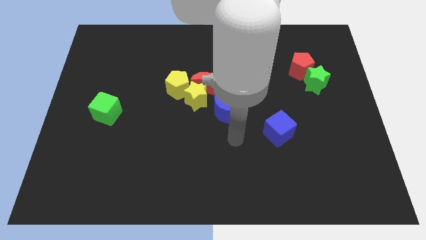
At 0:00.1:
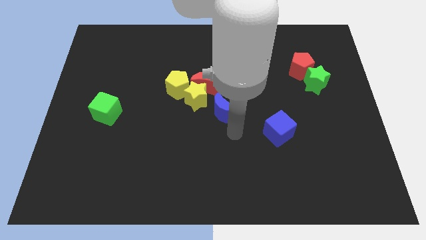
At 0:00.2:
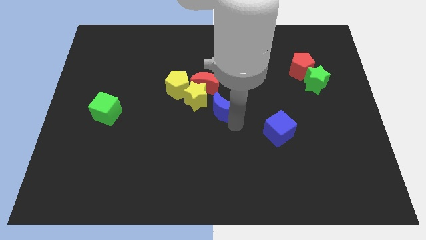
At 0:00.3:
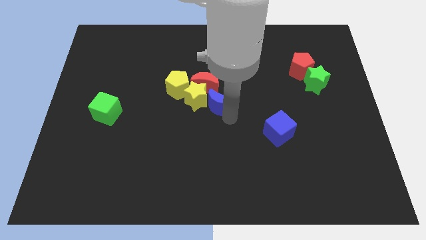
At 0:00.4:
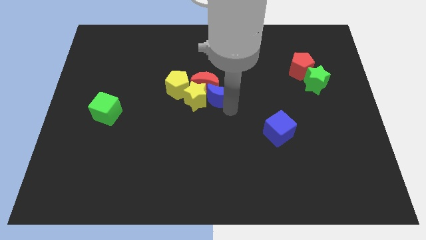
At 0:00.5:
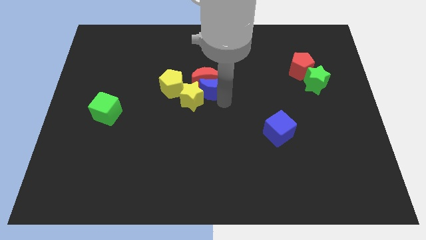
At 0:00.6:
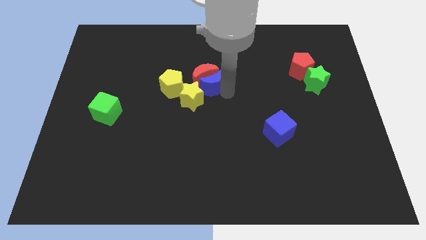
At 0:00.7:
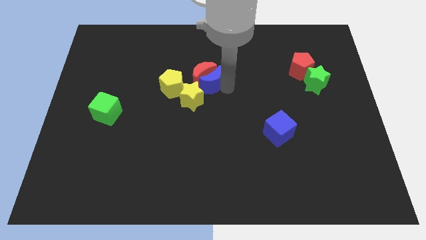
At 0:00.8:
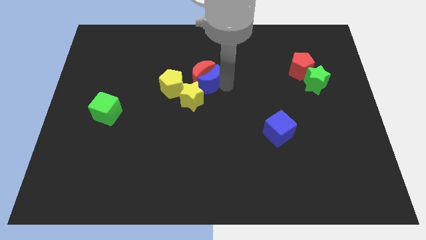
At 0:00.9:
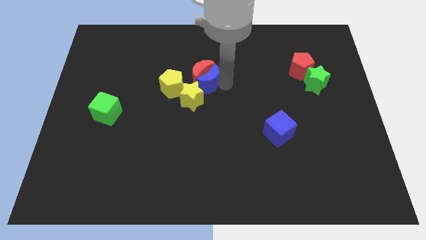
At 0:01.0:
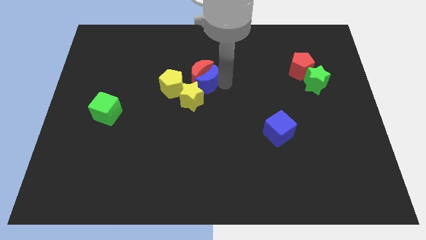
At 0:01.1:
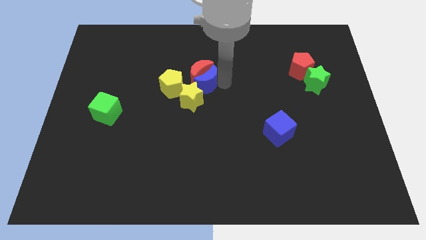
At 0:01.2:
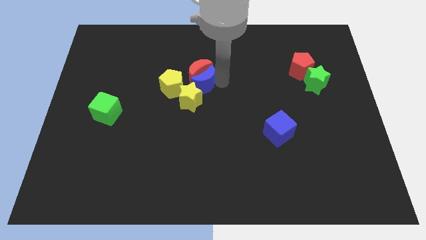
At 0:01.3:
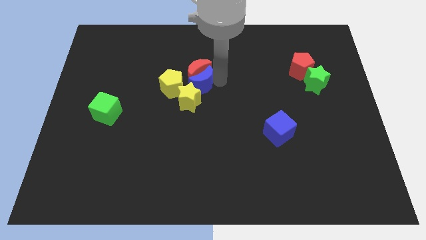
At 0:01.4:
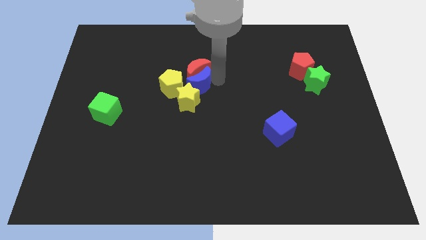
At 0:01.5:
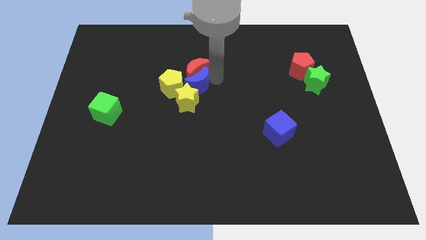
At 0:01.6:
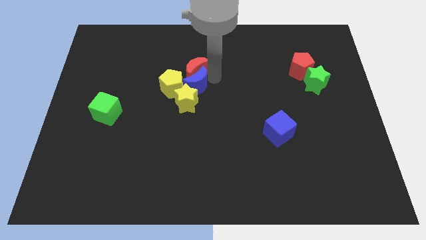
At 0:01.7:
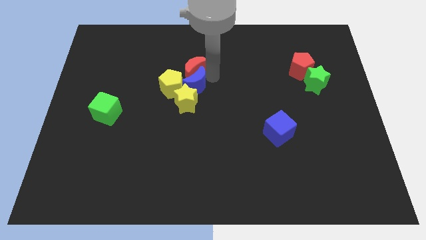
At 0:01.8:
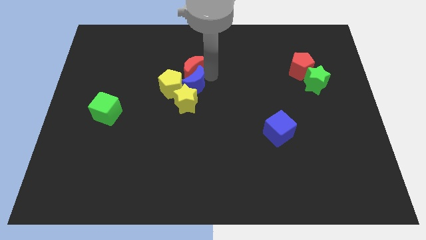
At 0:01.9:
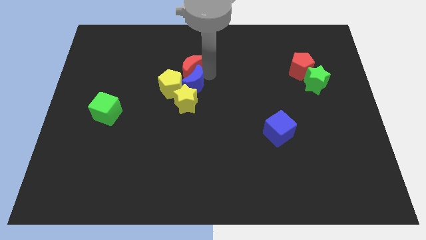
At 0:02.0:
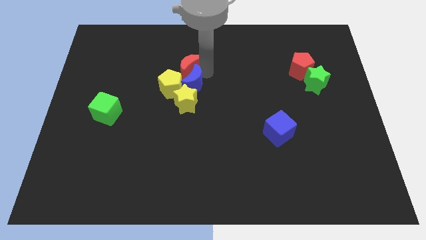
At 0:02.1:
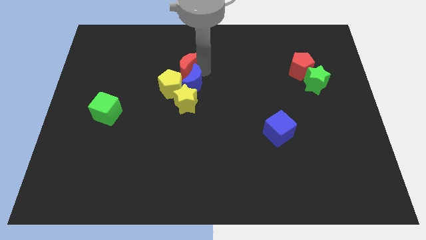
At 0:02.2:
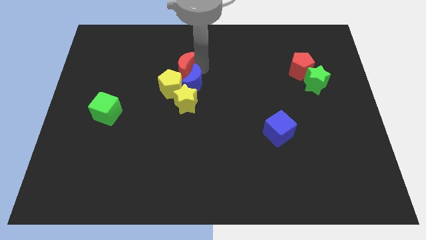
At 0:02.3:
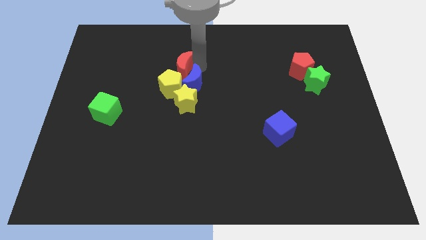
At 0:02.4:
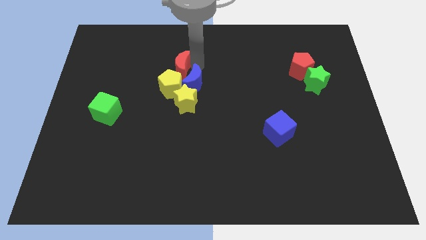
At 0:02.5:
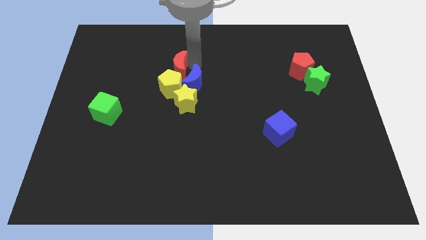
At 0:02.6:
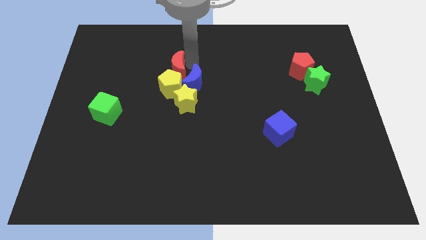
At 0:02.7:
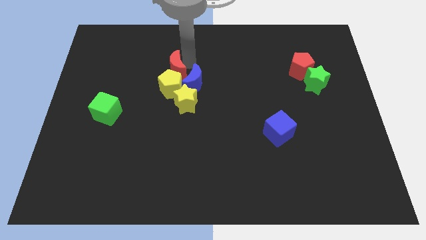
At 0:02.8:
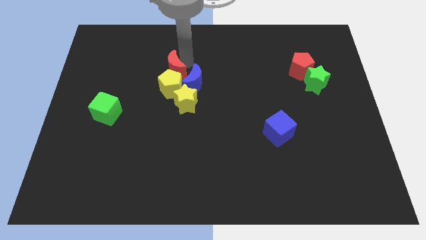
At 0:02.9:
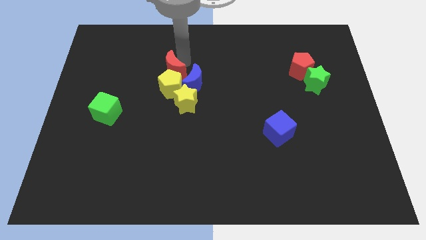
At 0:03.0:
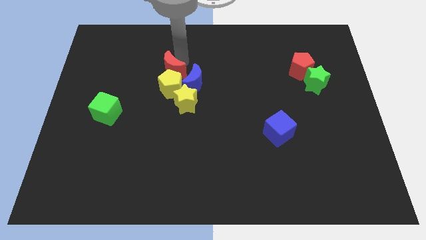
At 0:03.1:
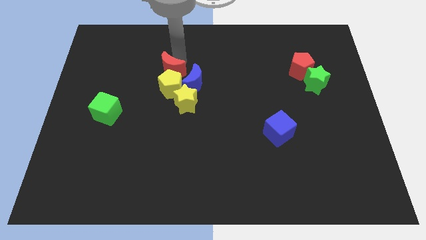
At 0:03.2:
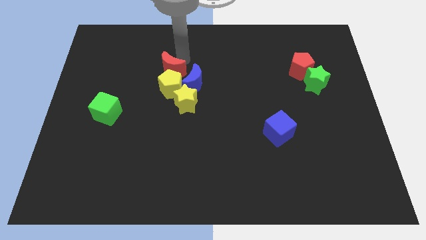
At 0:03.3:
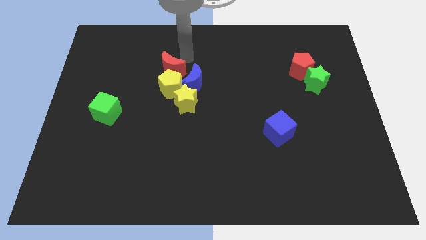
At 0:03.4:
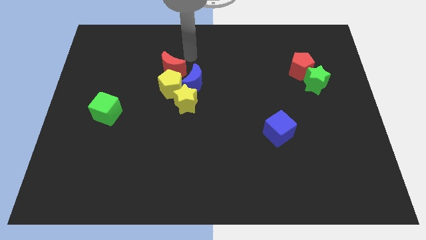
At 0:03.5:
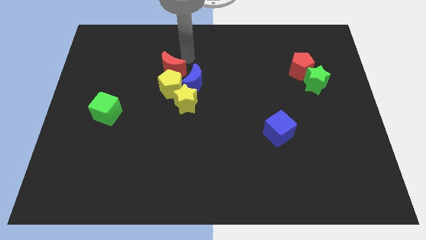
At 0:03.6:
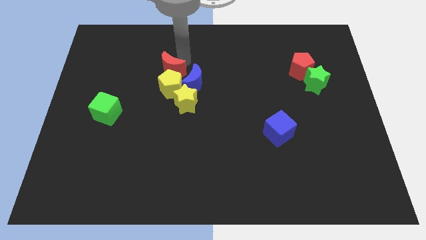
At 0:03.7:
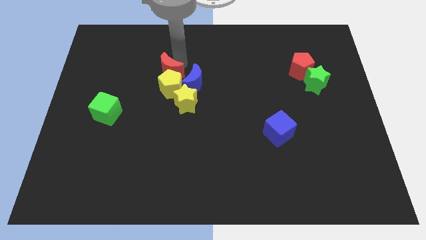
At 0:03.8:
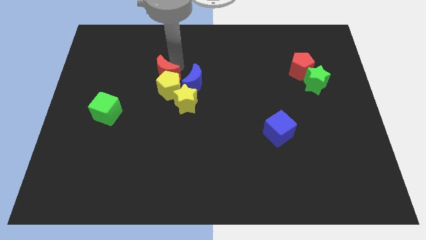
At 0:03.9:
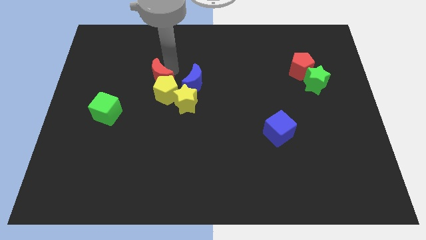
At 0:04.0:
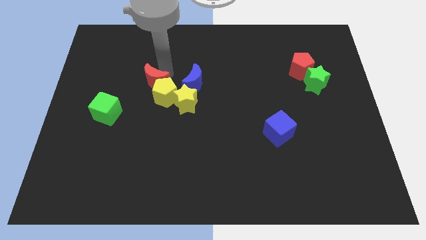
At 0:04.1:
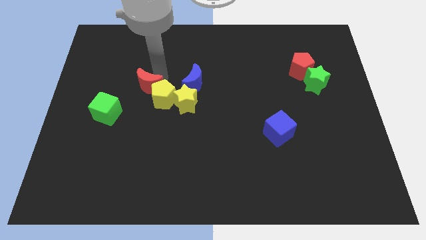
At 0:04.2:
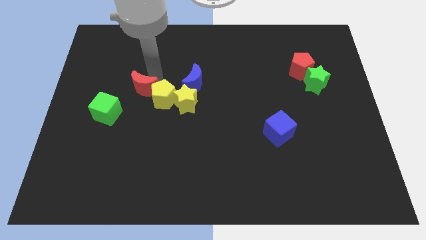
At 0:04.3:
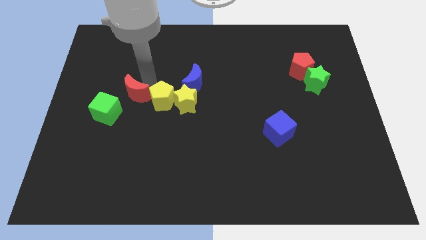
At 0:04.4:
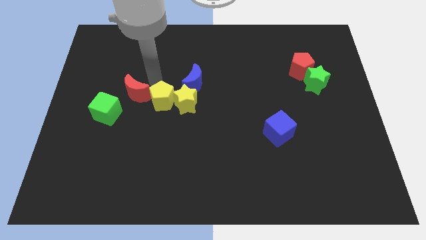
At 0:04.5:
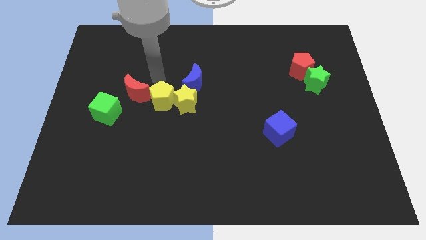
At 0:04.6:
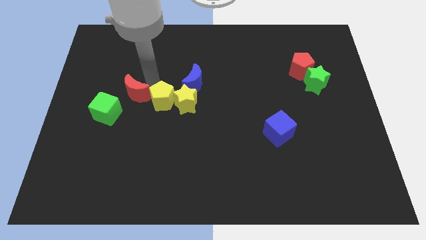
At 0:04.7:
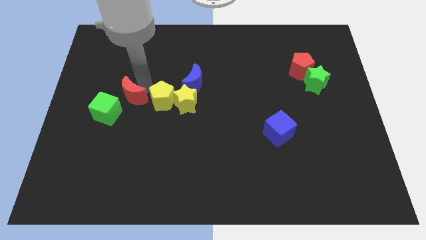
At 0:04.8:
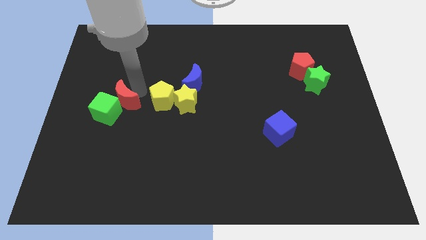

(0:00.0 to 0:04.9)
push the red moon towards the green cube

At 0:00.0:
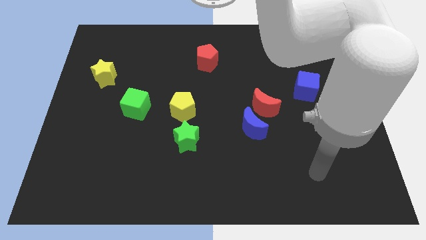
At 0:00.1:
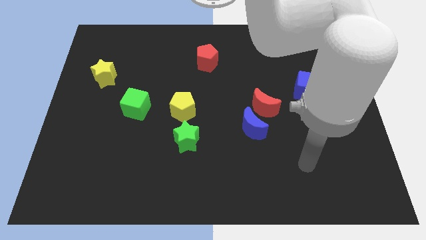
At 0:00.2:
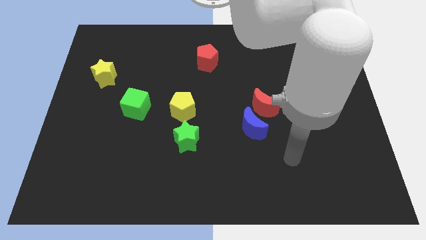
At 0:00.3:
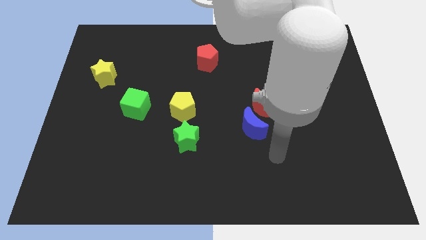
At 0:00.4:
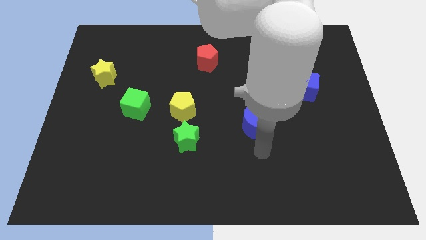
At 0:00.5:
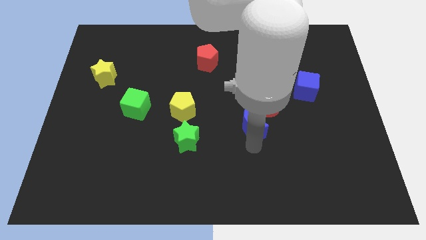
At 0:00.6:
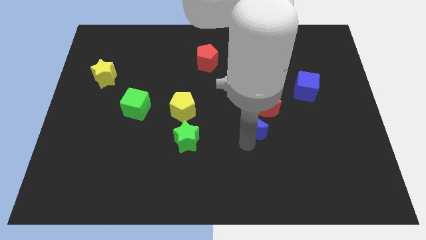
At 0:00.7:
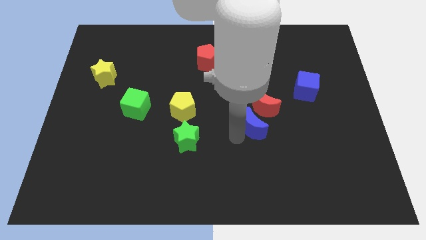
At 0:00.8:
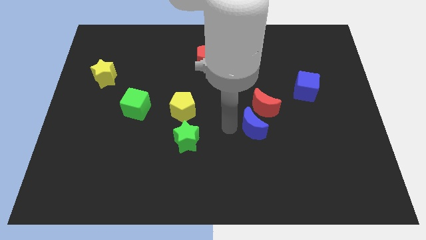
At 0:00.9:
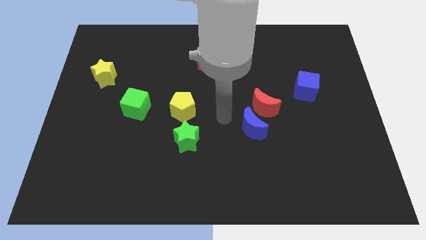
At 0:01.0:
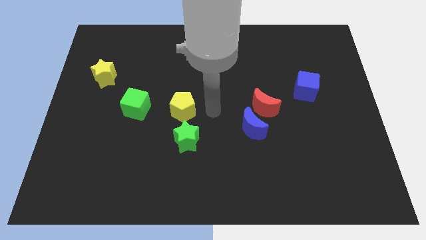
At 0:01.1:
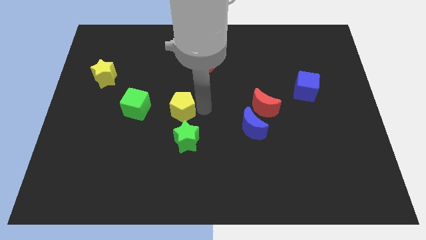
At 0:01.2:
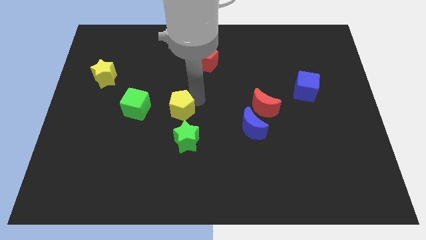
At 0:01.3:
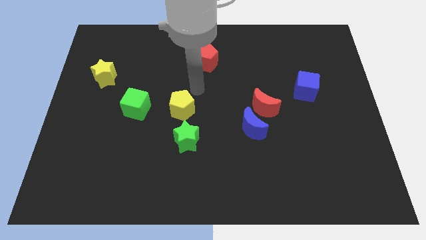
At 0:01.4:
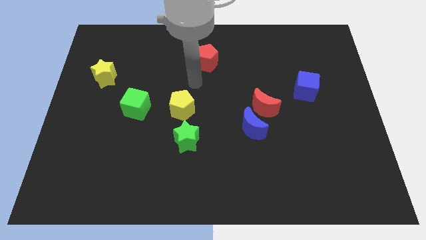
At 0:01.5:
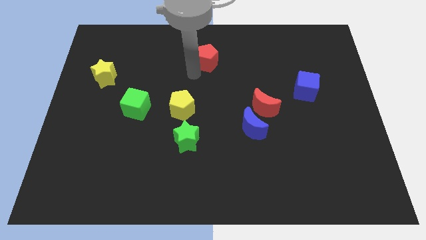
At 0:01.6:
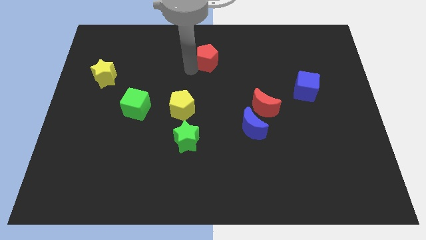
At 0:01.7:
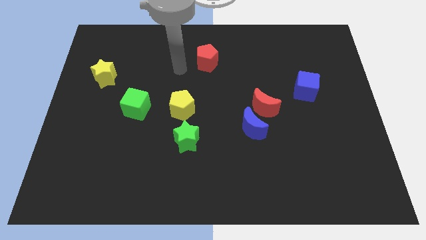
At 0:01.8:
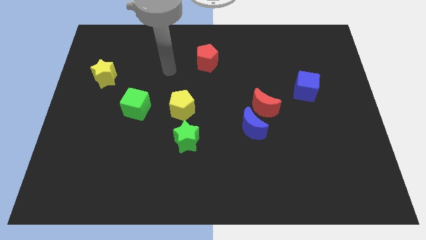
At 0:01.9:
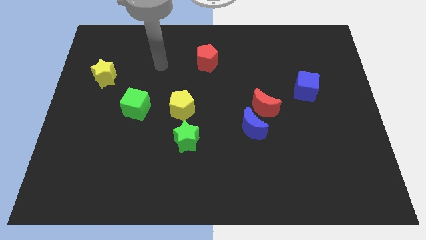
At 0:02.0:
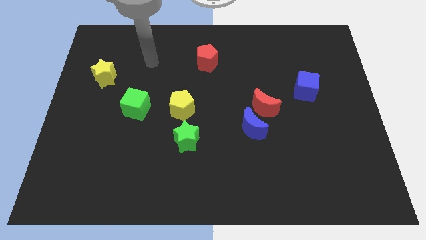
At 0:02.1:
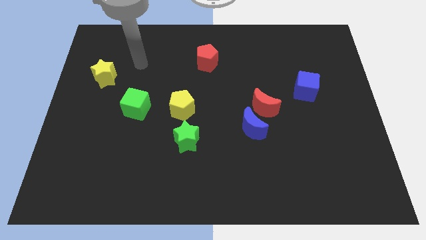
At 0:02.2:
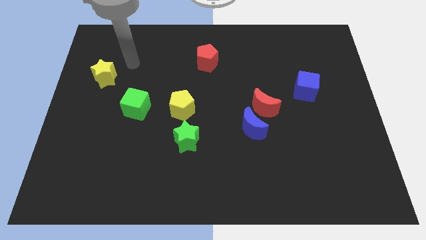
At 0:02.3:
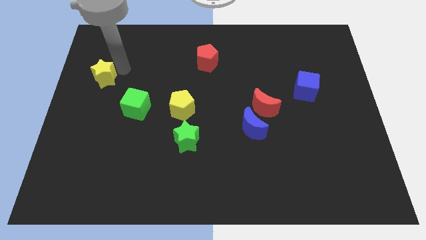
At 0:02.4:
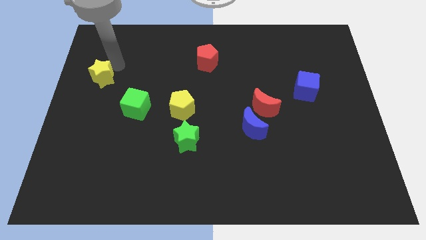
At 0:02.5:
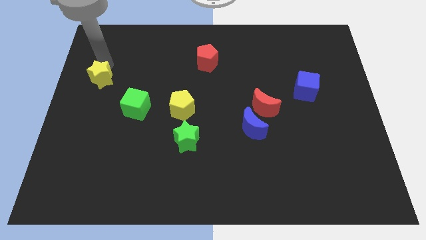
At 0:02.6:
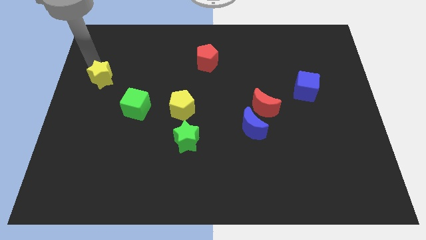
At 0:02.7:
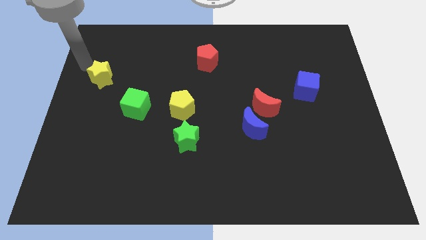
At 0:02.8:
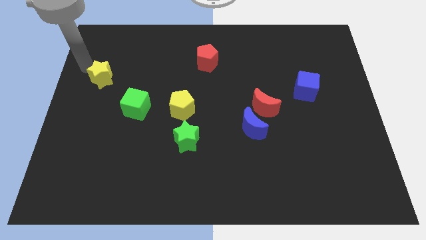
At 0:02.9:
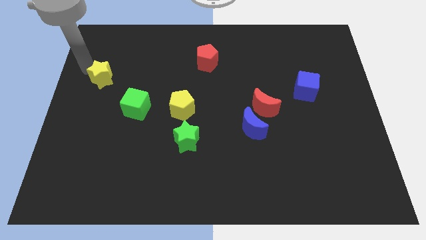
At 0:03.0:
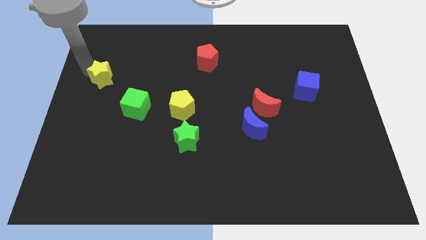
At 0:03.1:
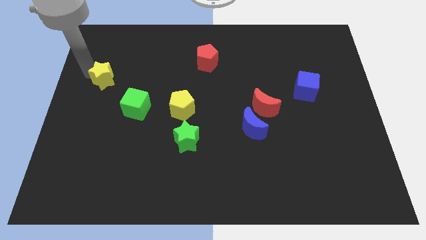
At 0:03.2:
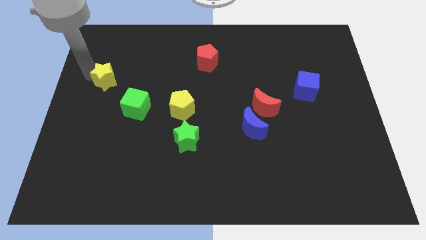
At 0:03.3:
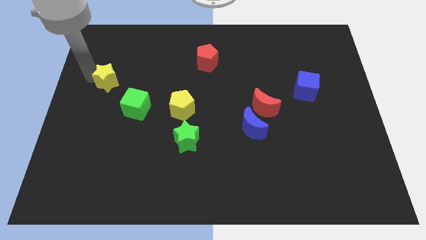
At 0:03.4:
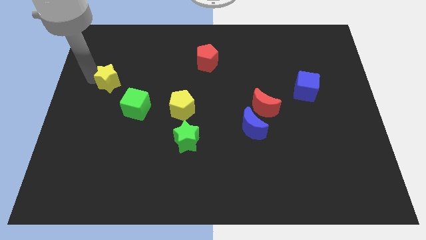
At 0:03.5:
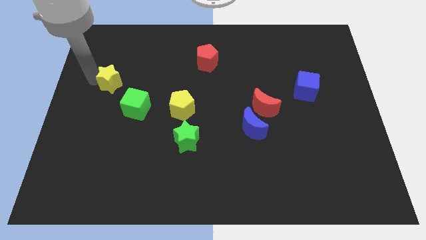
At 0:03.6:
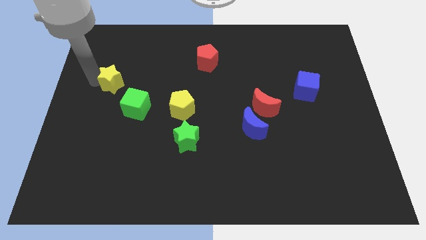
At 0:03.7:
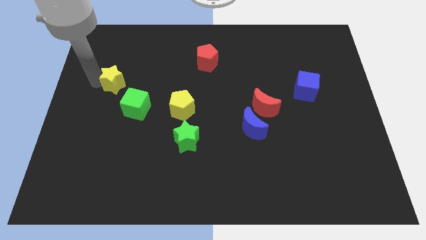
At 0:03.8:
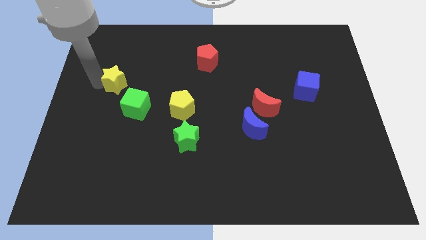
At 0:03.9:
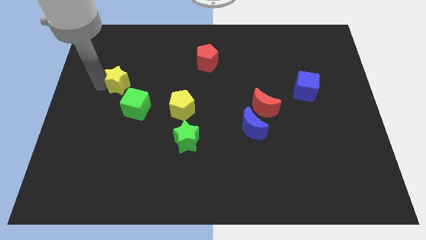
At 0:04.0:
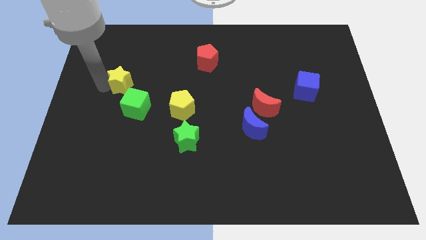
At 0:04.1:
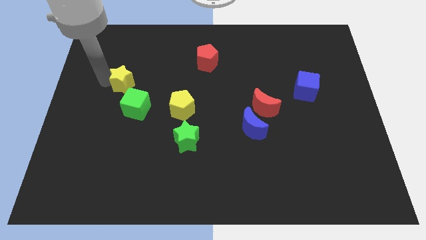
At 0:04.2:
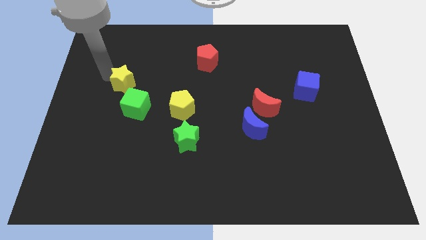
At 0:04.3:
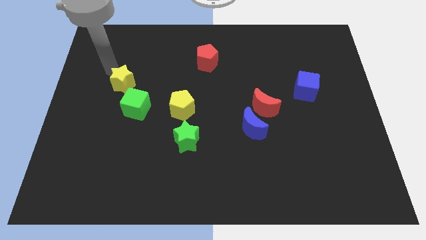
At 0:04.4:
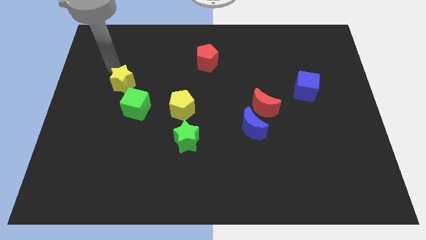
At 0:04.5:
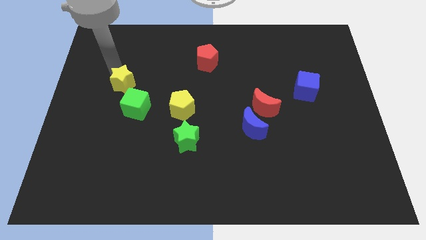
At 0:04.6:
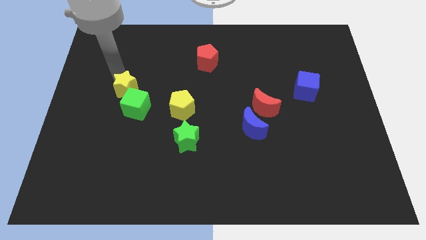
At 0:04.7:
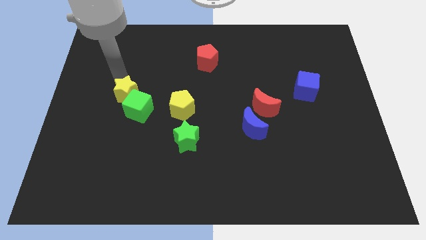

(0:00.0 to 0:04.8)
push the yellow star to the green cube
